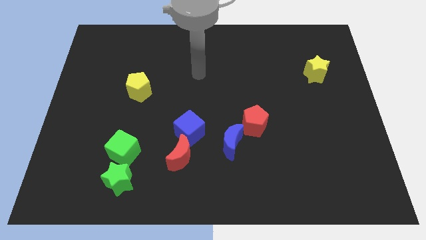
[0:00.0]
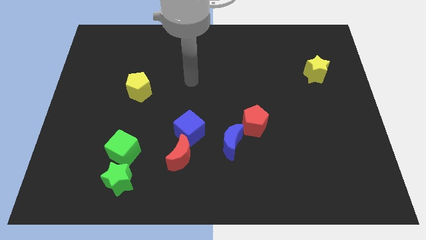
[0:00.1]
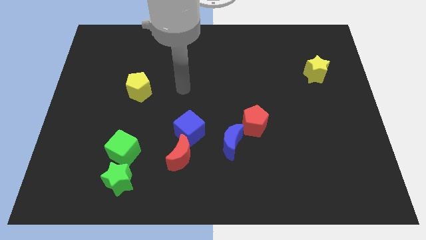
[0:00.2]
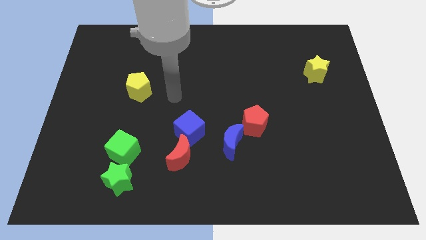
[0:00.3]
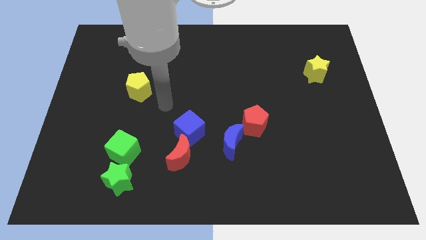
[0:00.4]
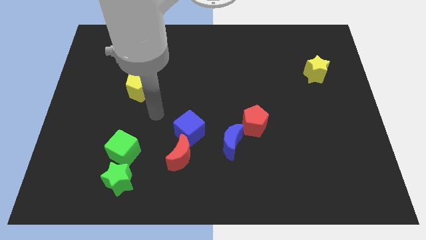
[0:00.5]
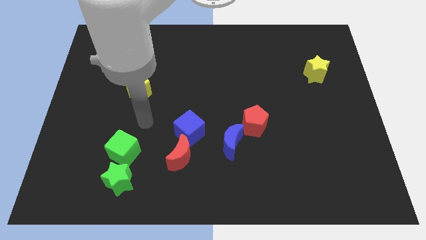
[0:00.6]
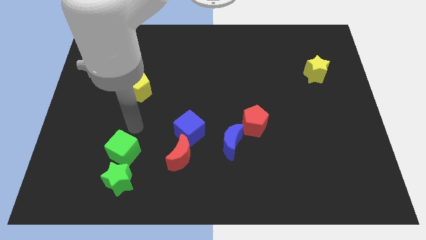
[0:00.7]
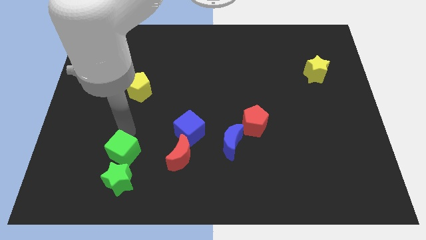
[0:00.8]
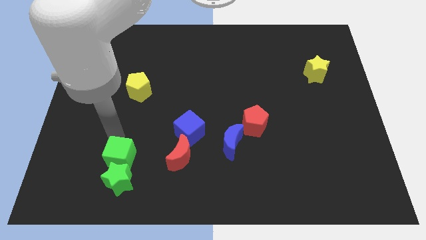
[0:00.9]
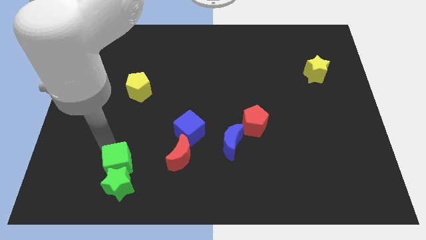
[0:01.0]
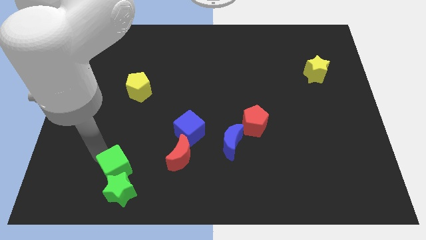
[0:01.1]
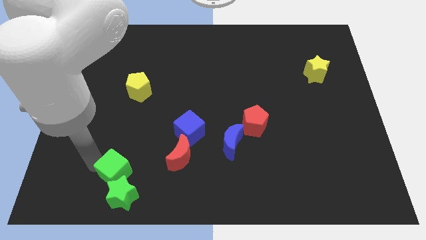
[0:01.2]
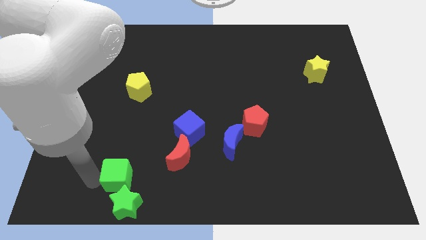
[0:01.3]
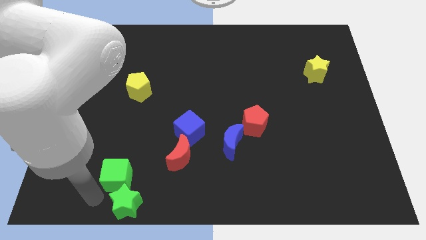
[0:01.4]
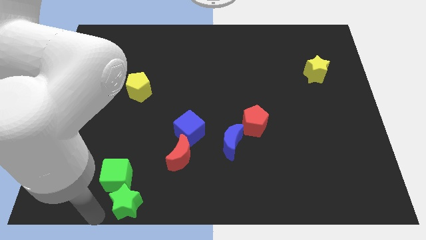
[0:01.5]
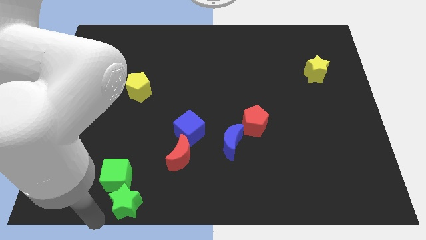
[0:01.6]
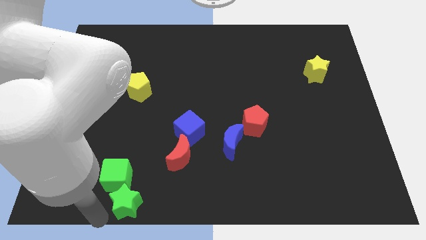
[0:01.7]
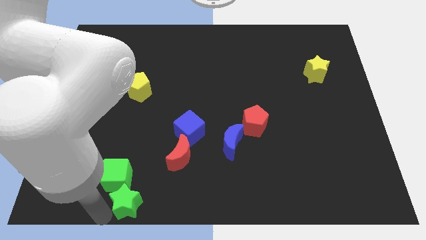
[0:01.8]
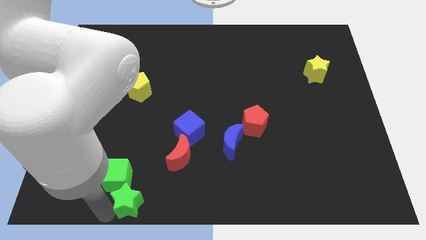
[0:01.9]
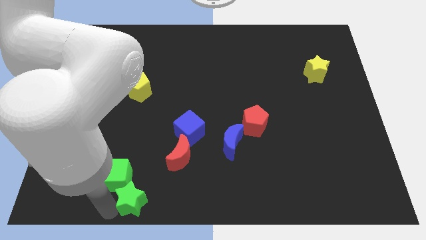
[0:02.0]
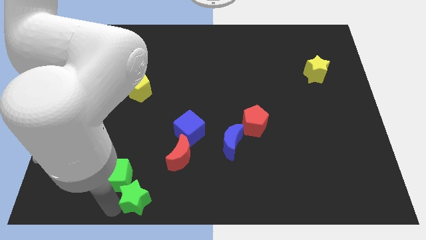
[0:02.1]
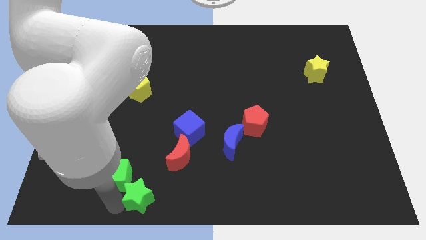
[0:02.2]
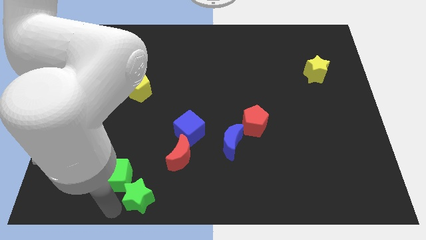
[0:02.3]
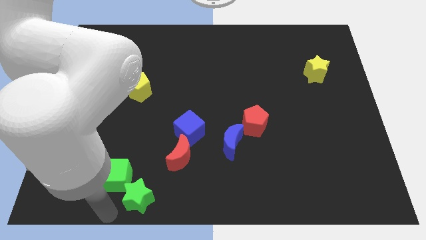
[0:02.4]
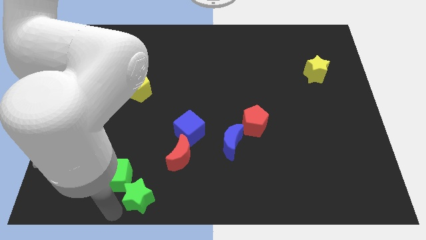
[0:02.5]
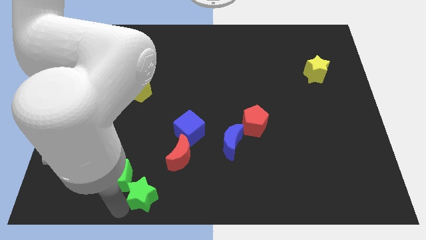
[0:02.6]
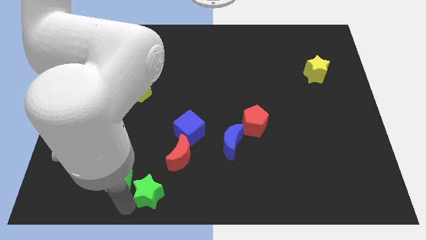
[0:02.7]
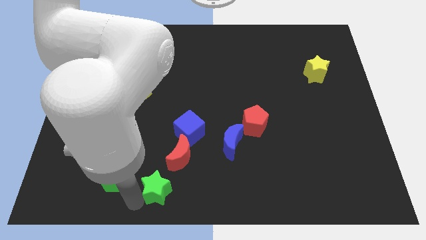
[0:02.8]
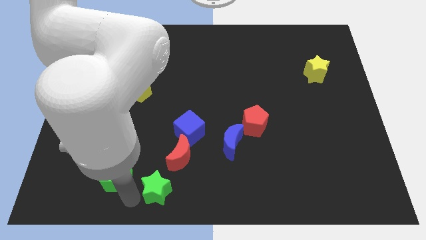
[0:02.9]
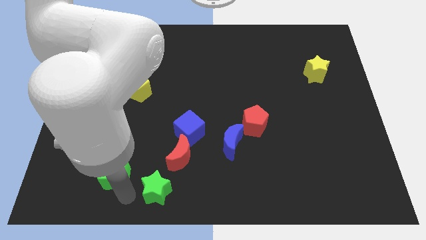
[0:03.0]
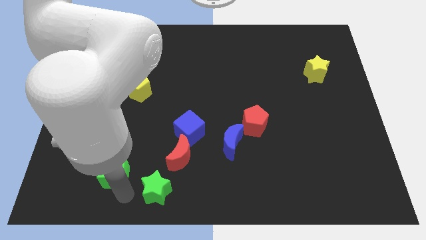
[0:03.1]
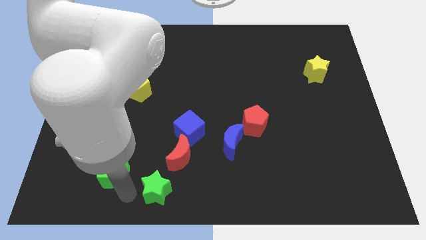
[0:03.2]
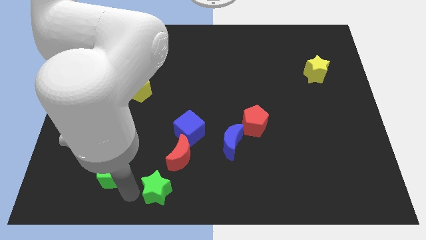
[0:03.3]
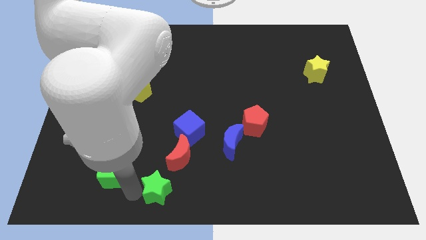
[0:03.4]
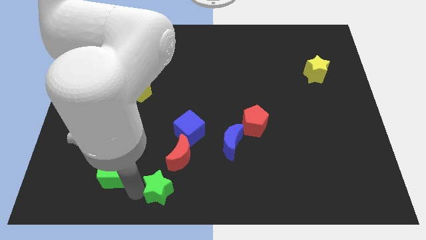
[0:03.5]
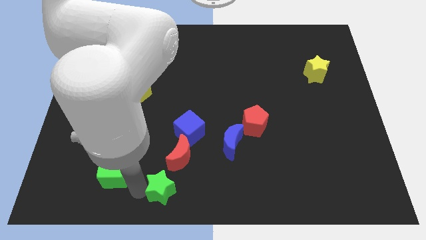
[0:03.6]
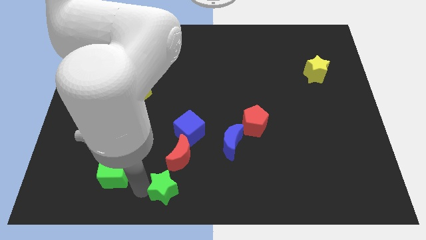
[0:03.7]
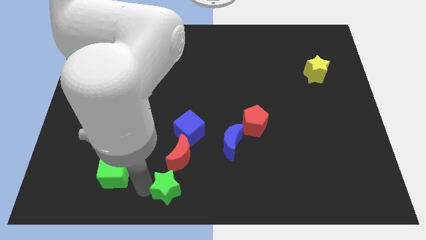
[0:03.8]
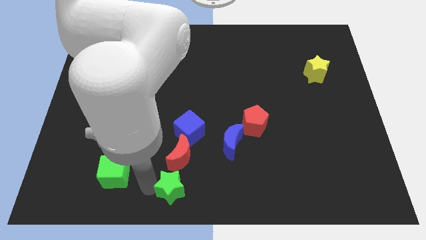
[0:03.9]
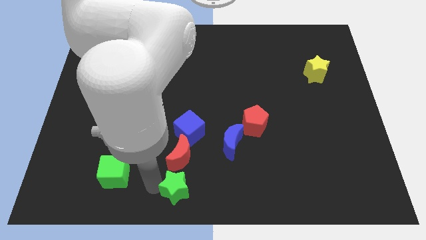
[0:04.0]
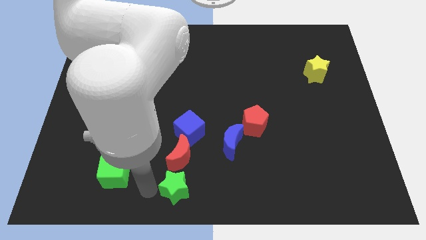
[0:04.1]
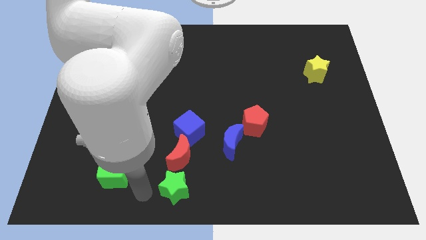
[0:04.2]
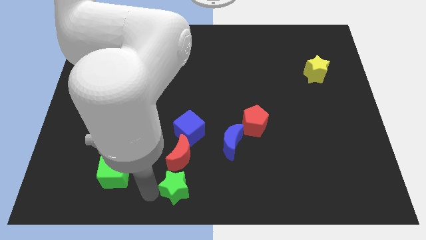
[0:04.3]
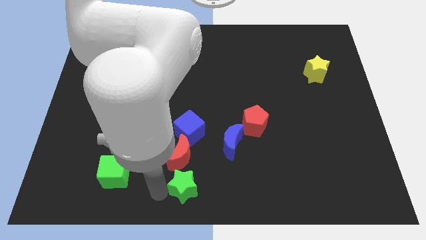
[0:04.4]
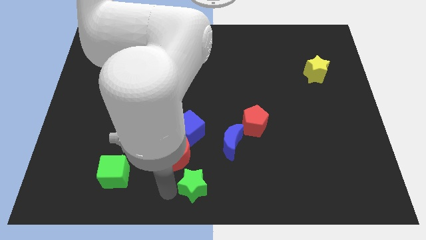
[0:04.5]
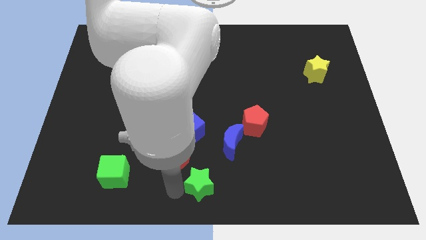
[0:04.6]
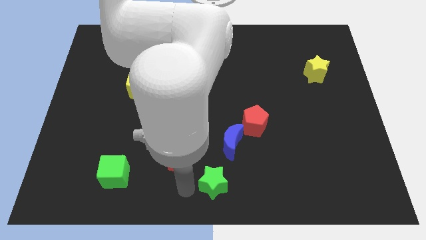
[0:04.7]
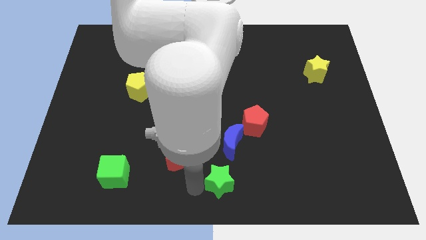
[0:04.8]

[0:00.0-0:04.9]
slide the green star right

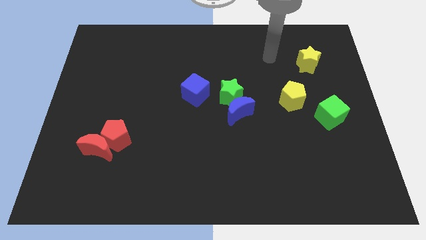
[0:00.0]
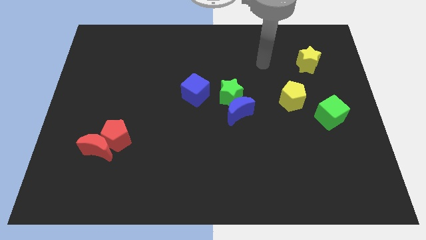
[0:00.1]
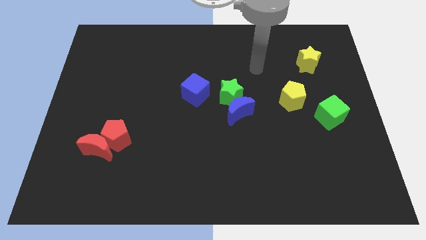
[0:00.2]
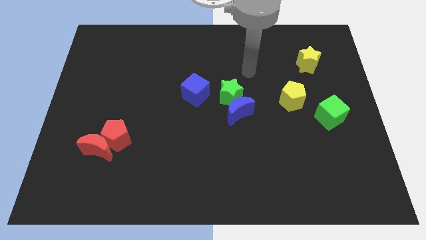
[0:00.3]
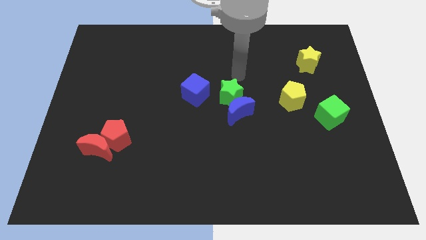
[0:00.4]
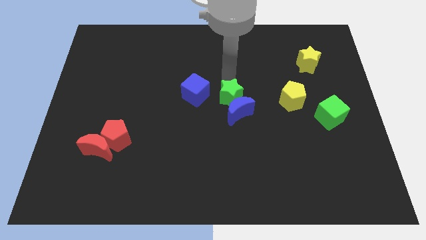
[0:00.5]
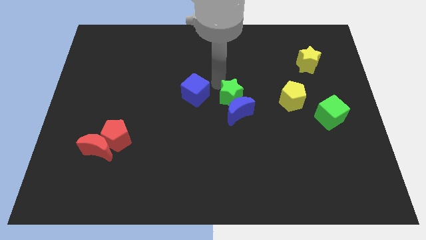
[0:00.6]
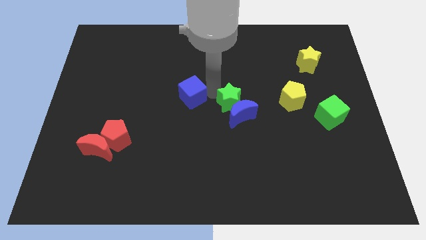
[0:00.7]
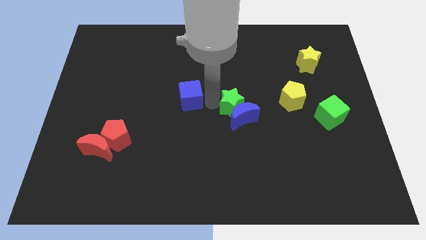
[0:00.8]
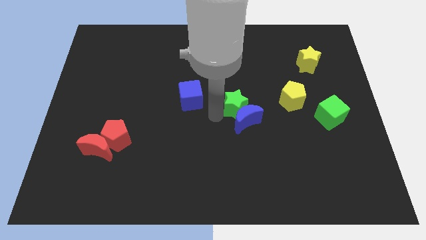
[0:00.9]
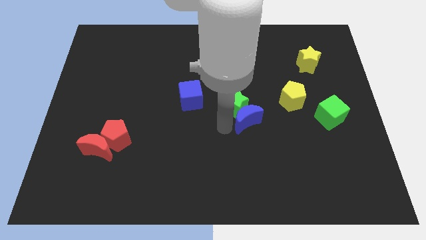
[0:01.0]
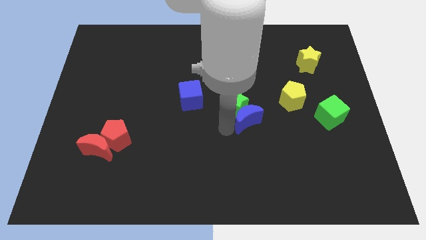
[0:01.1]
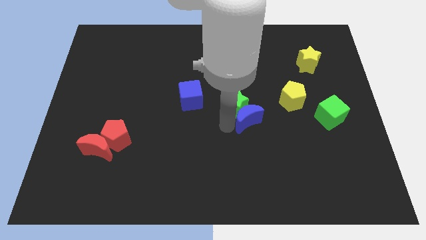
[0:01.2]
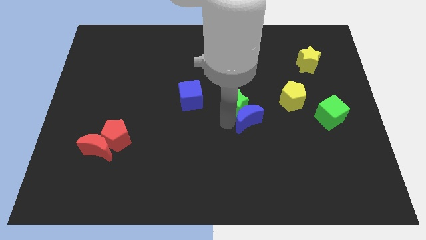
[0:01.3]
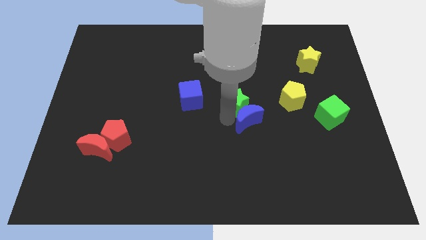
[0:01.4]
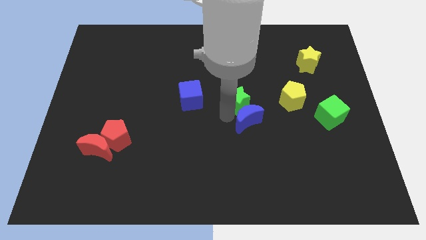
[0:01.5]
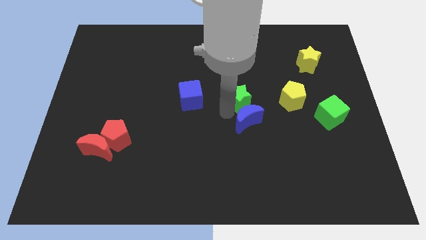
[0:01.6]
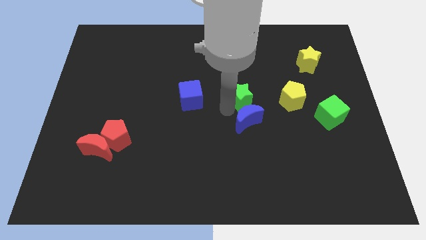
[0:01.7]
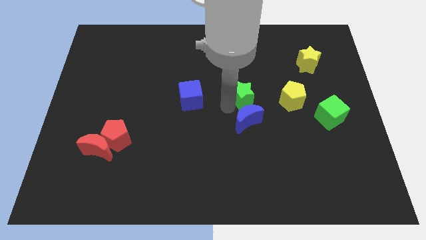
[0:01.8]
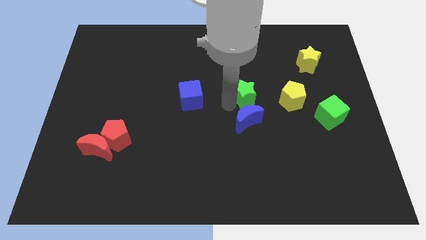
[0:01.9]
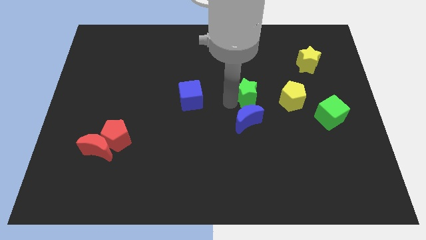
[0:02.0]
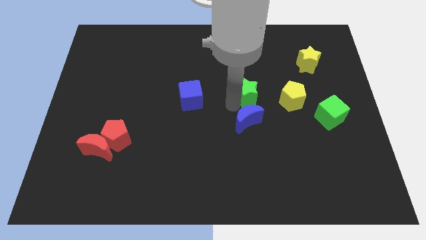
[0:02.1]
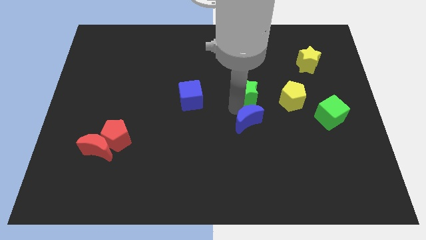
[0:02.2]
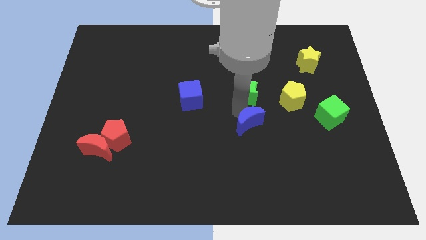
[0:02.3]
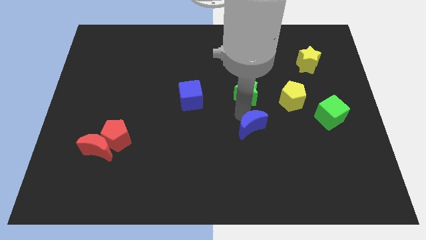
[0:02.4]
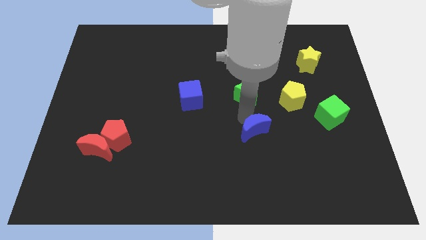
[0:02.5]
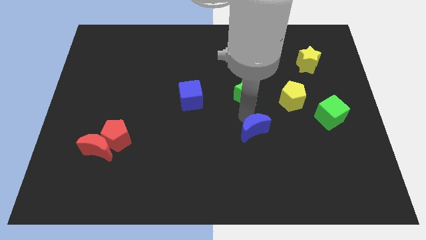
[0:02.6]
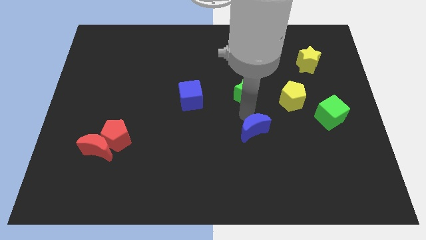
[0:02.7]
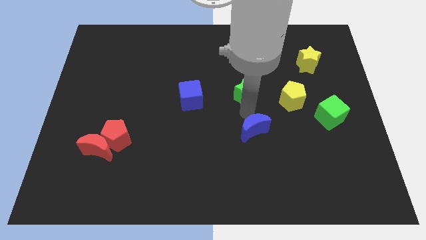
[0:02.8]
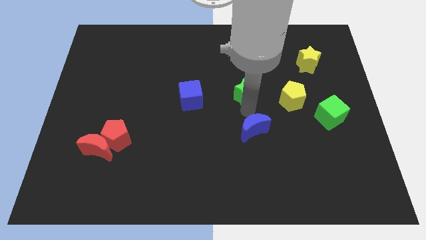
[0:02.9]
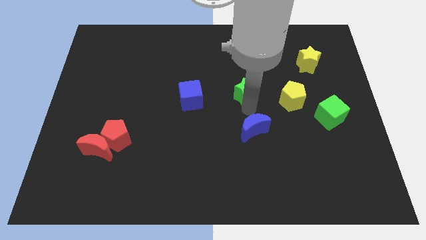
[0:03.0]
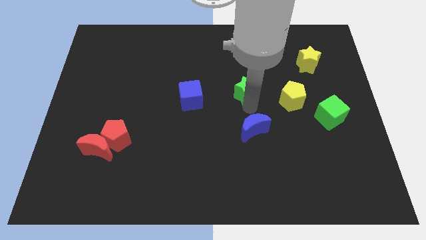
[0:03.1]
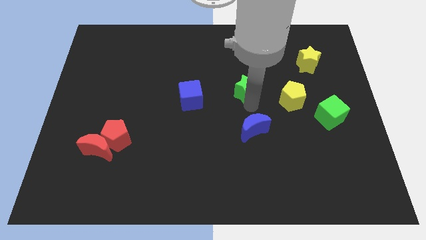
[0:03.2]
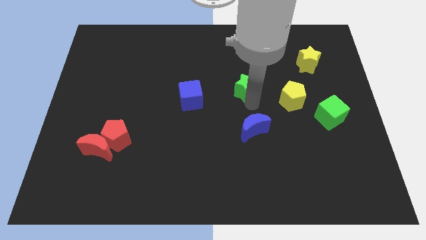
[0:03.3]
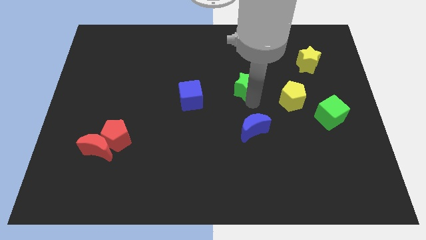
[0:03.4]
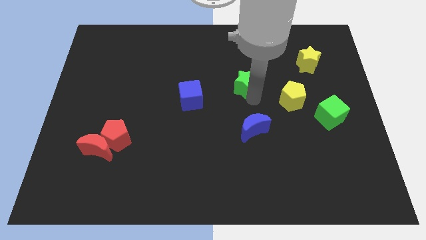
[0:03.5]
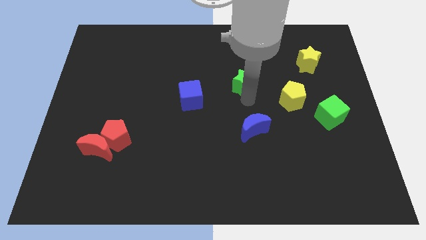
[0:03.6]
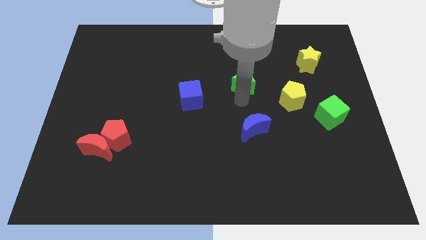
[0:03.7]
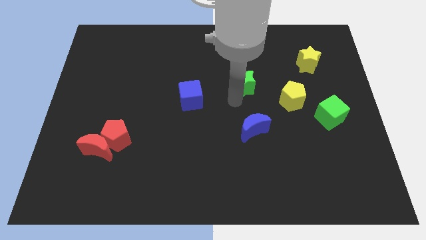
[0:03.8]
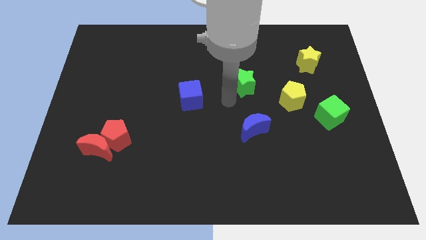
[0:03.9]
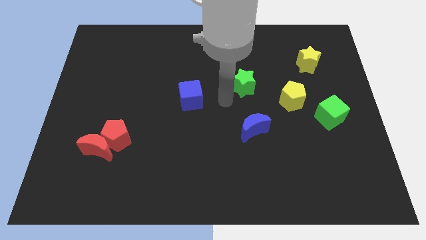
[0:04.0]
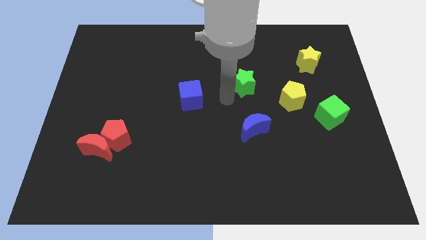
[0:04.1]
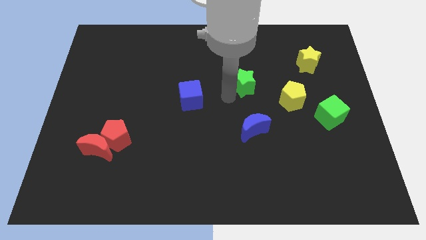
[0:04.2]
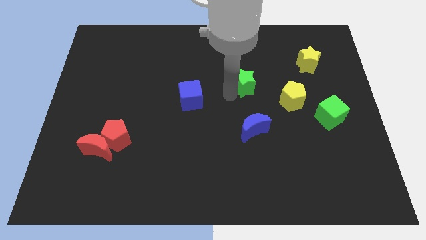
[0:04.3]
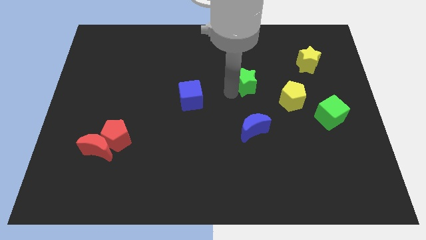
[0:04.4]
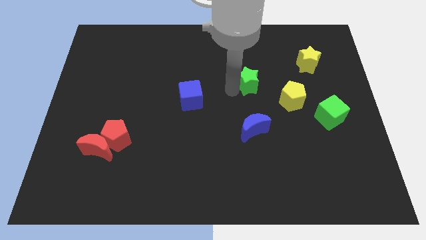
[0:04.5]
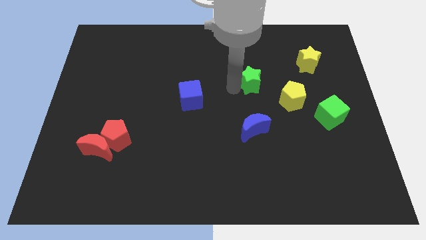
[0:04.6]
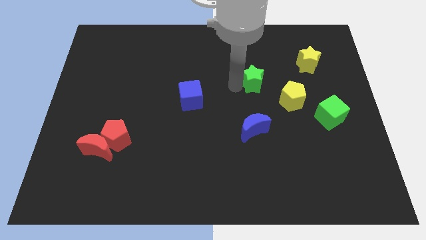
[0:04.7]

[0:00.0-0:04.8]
slightly move the green star upwards and then to the right
